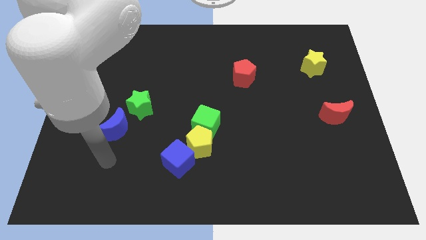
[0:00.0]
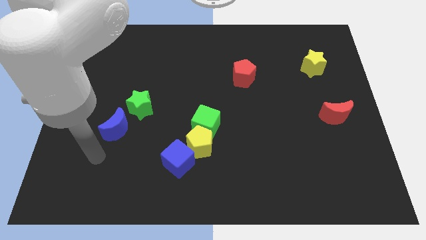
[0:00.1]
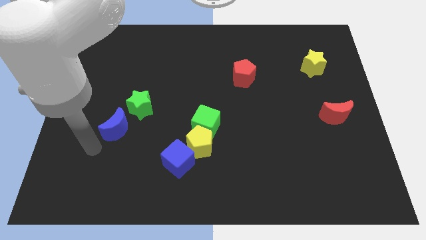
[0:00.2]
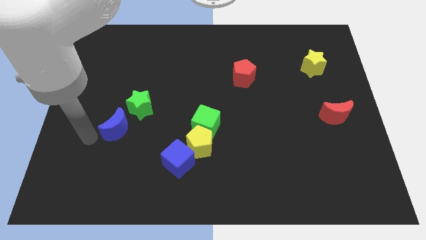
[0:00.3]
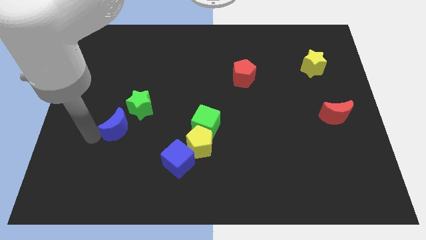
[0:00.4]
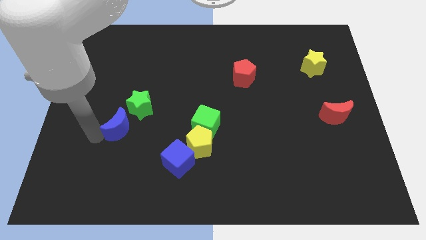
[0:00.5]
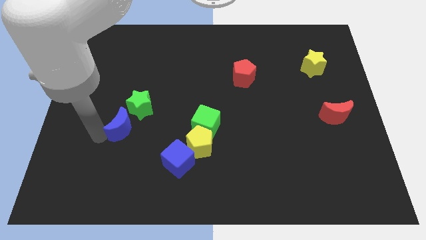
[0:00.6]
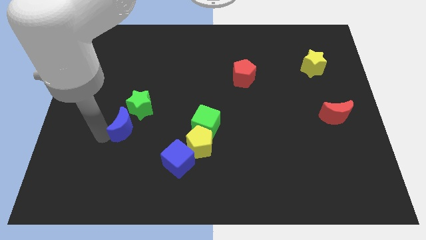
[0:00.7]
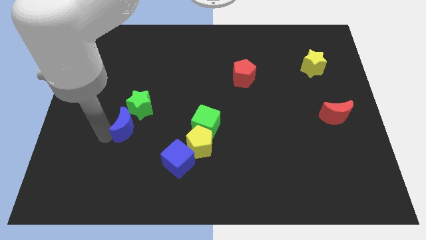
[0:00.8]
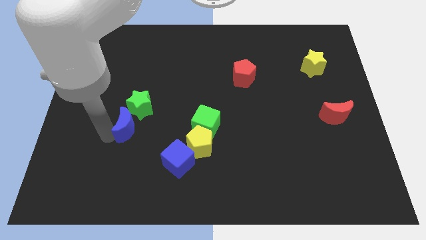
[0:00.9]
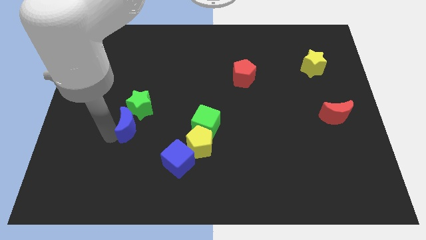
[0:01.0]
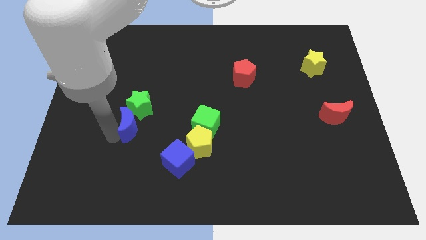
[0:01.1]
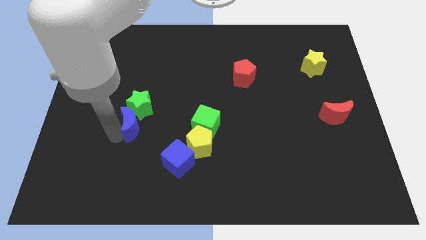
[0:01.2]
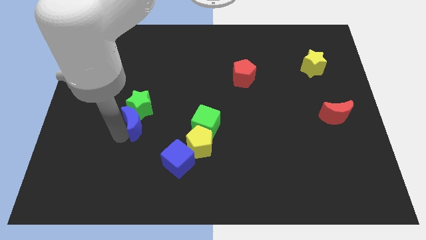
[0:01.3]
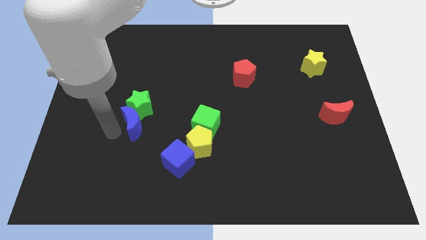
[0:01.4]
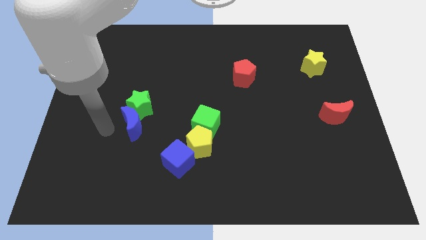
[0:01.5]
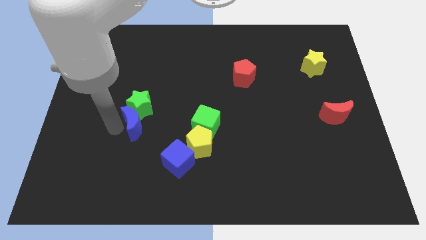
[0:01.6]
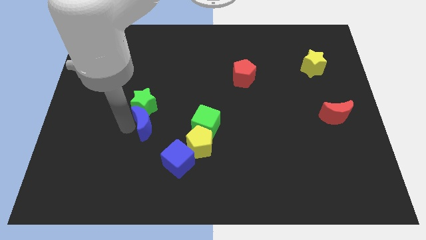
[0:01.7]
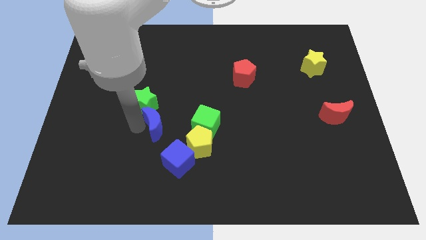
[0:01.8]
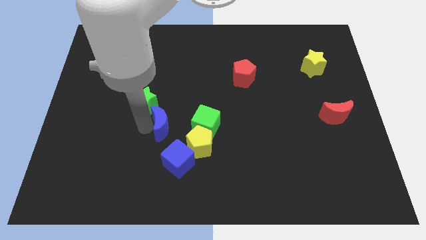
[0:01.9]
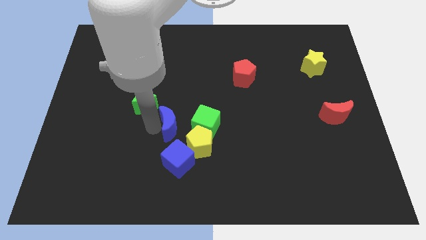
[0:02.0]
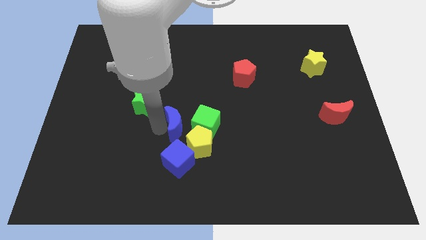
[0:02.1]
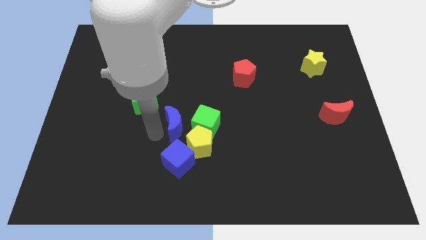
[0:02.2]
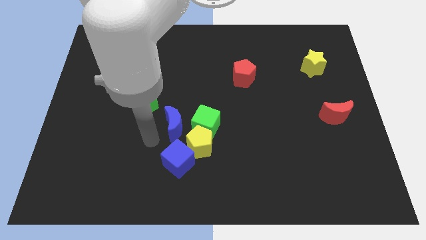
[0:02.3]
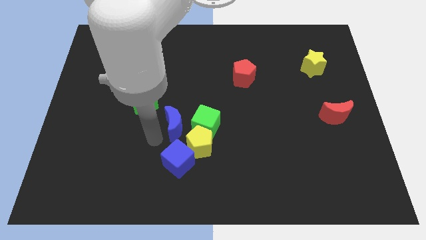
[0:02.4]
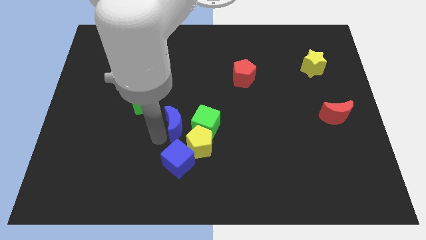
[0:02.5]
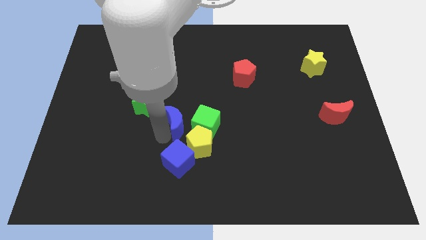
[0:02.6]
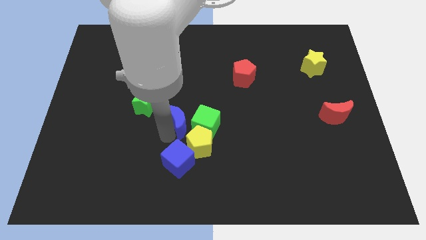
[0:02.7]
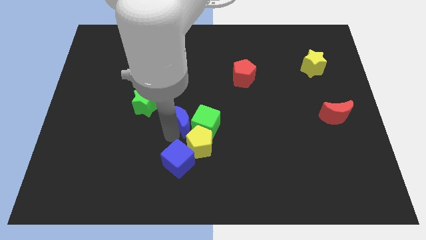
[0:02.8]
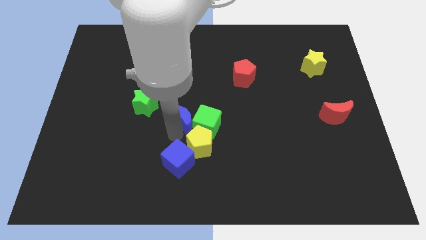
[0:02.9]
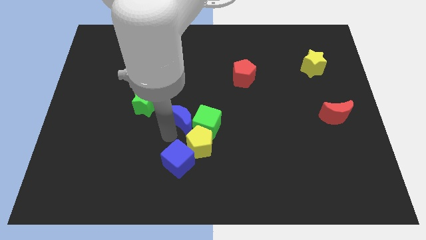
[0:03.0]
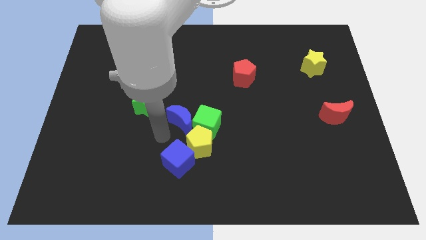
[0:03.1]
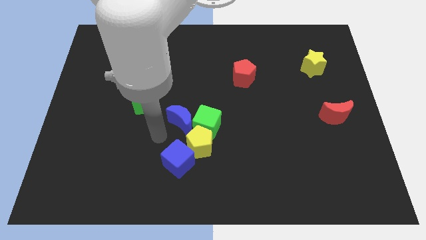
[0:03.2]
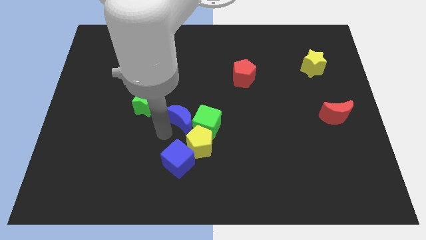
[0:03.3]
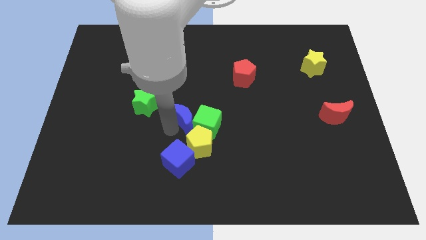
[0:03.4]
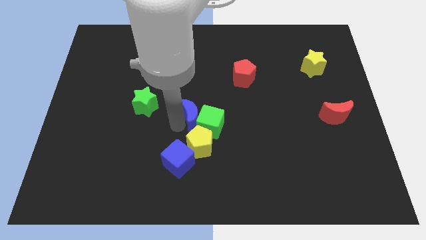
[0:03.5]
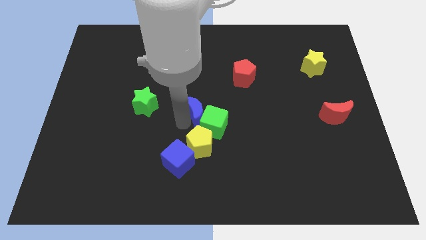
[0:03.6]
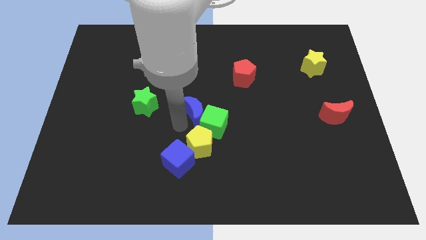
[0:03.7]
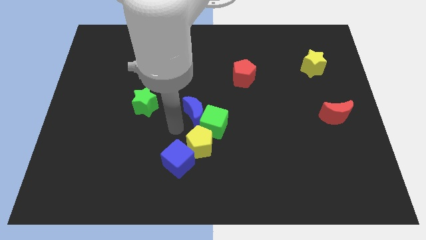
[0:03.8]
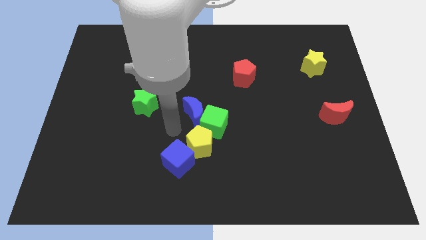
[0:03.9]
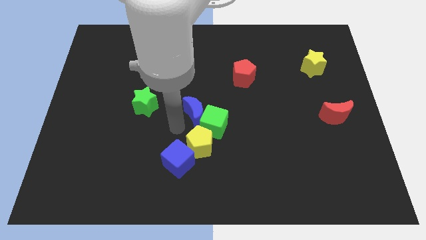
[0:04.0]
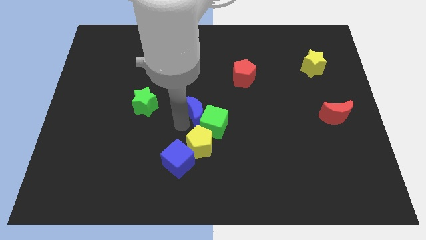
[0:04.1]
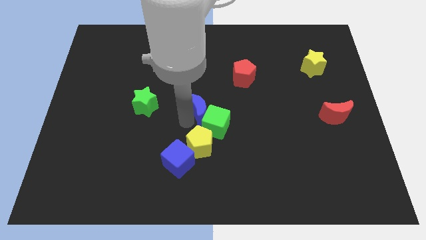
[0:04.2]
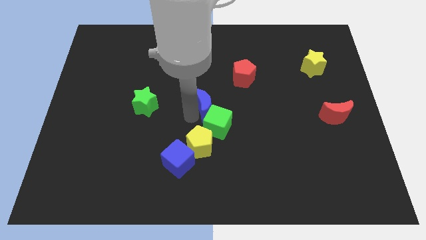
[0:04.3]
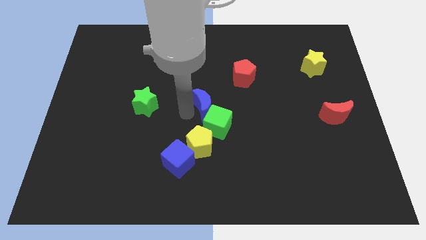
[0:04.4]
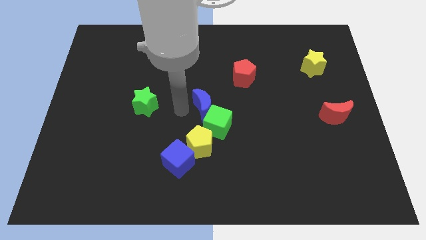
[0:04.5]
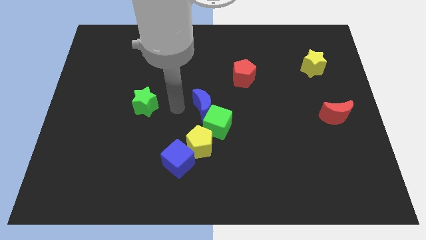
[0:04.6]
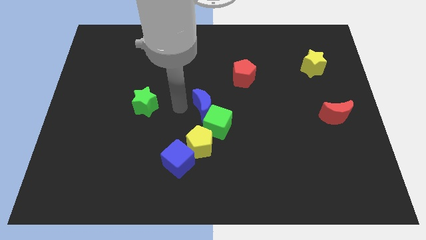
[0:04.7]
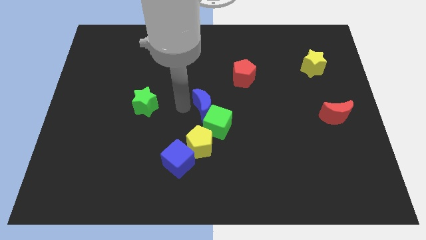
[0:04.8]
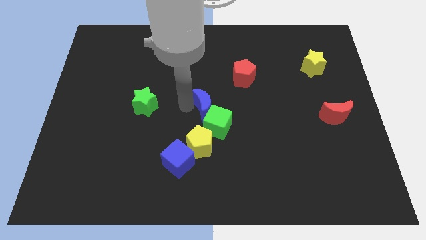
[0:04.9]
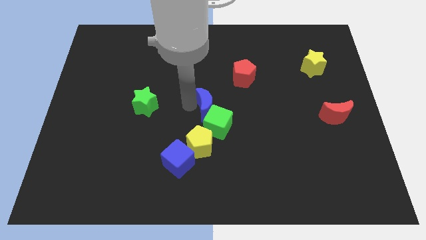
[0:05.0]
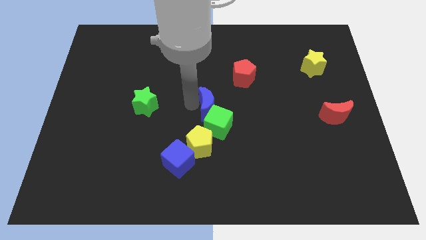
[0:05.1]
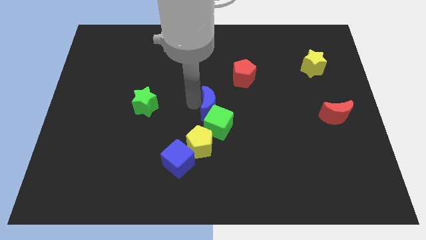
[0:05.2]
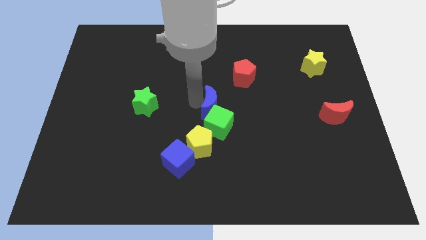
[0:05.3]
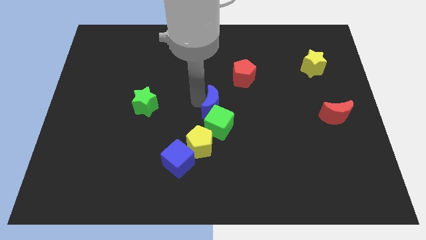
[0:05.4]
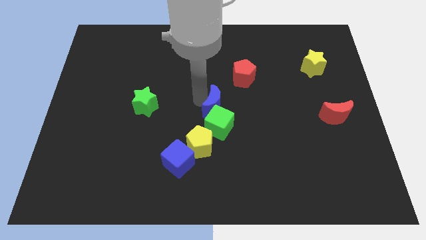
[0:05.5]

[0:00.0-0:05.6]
slide the blue moon to the right

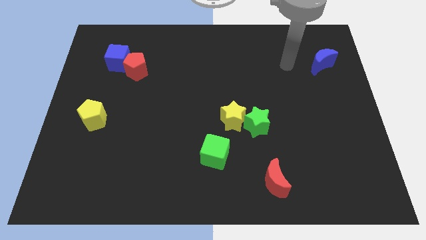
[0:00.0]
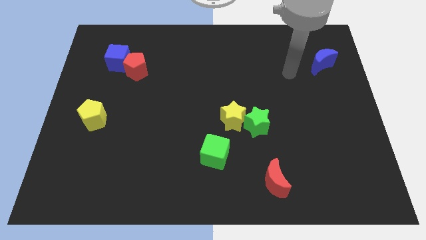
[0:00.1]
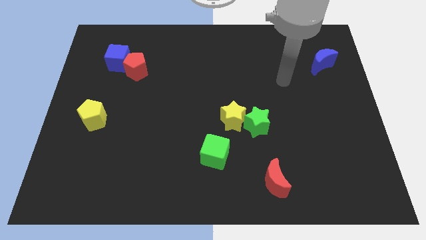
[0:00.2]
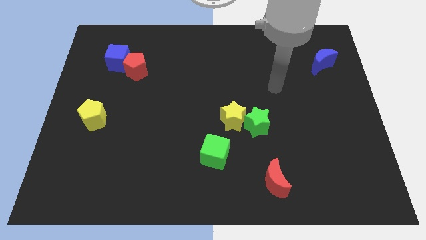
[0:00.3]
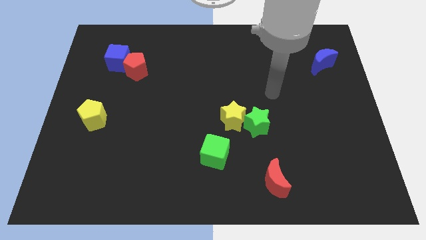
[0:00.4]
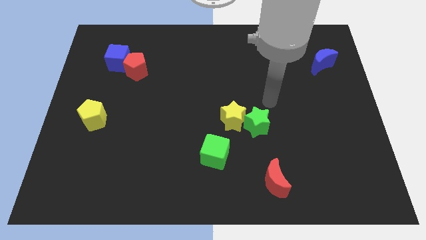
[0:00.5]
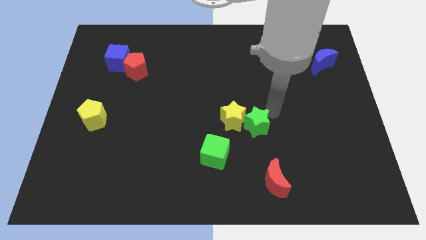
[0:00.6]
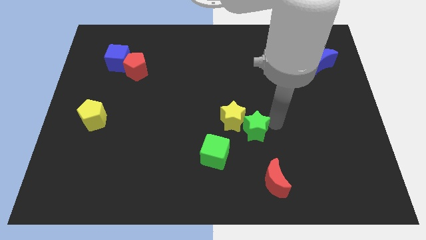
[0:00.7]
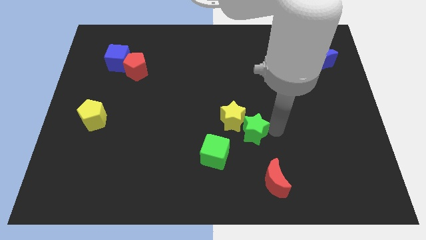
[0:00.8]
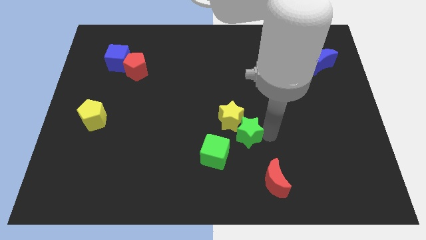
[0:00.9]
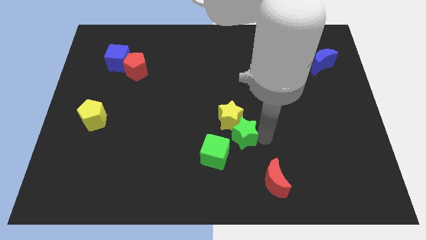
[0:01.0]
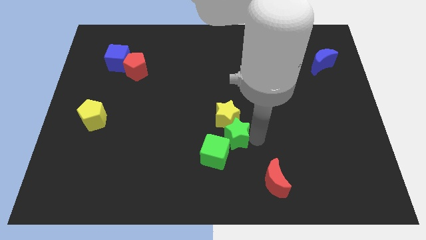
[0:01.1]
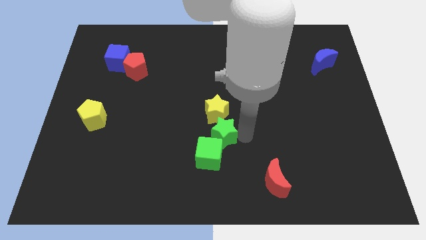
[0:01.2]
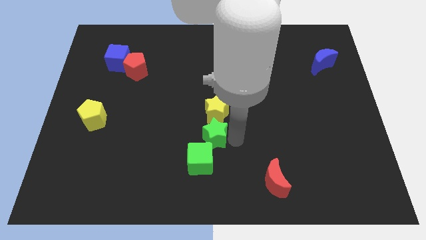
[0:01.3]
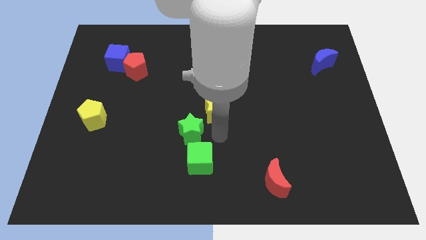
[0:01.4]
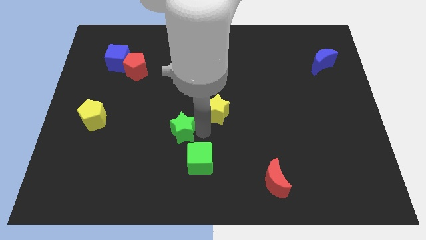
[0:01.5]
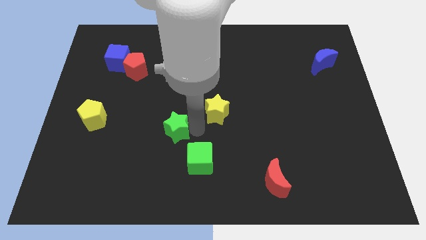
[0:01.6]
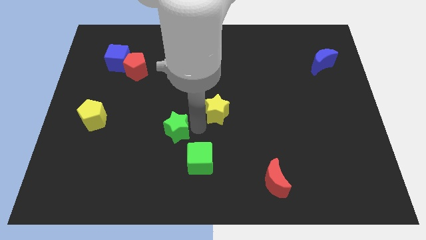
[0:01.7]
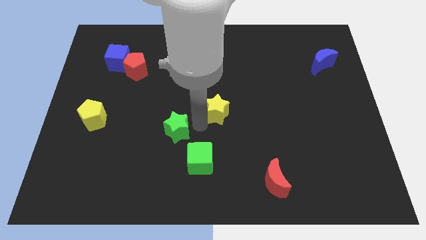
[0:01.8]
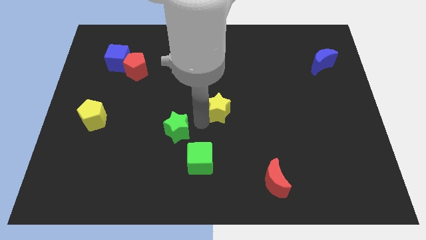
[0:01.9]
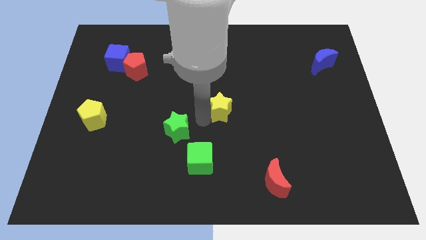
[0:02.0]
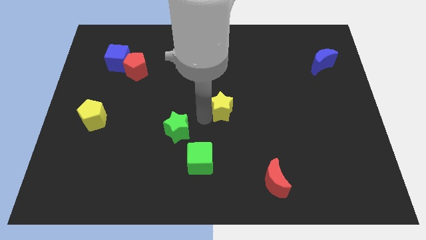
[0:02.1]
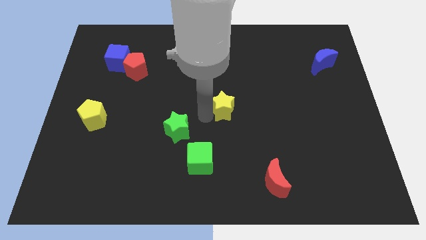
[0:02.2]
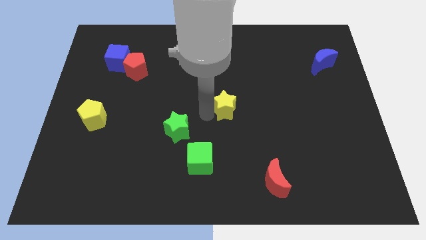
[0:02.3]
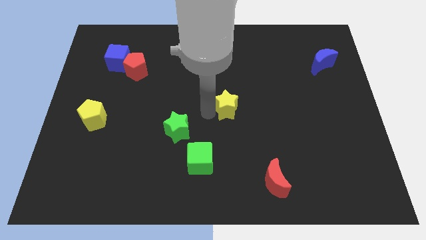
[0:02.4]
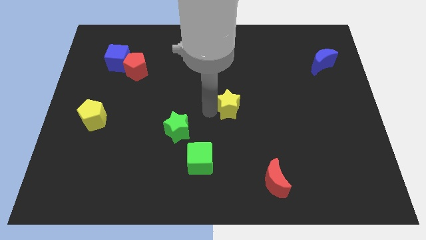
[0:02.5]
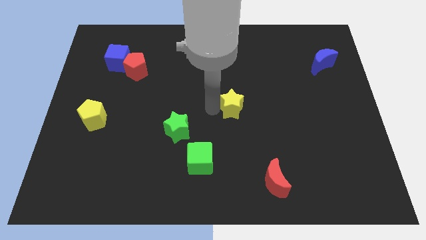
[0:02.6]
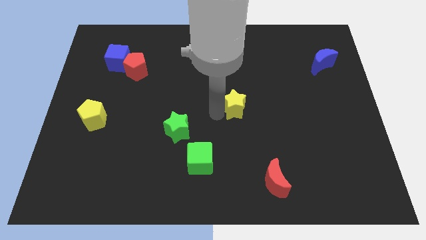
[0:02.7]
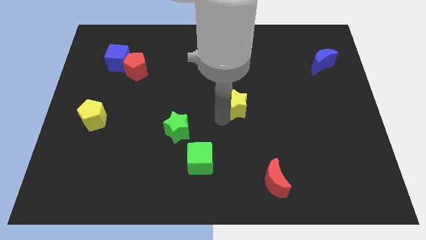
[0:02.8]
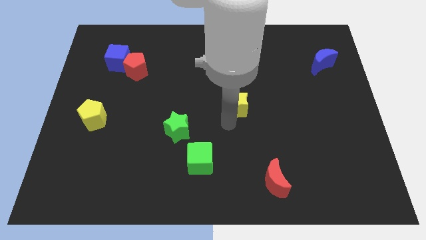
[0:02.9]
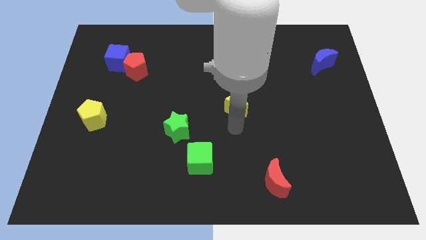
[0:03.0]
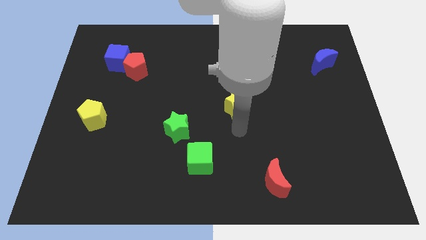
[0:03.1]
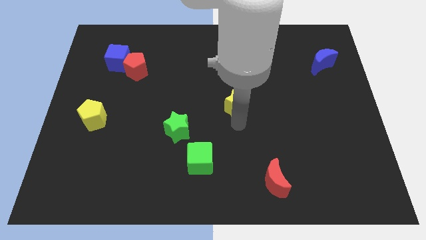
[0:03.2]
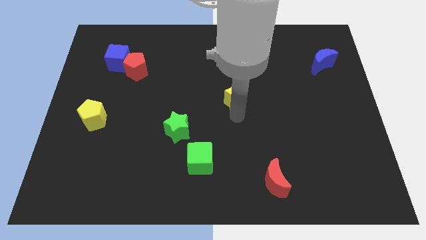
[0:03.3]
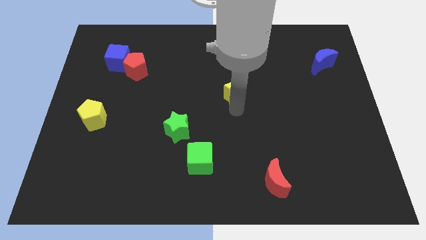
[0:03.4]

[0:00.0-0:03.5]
slide the yellow star a bit up
